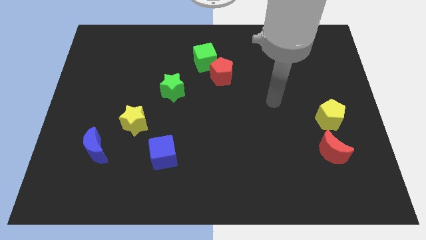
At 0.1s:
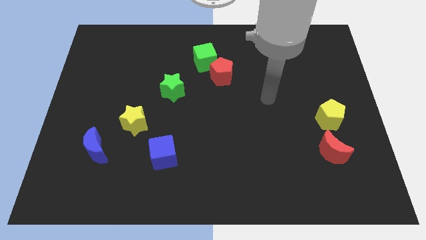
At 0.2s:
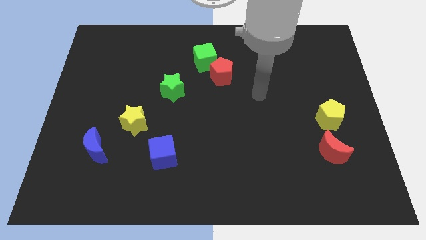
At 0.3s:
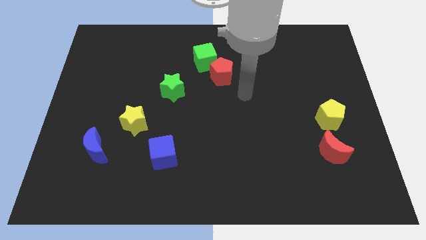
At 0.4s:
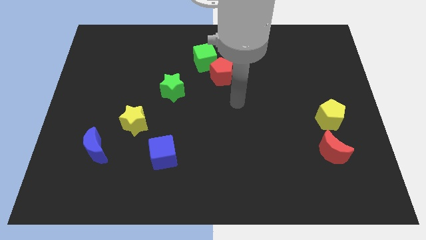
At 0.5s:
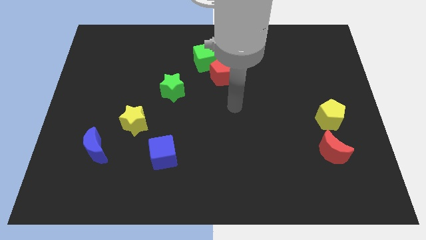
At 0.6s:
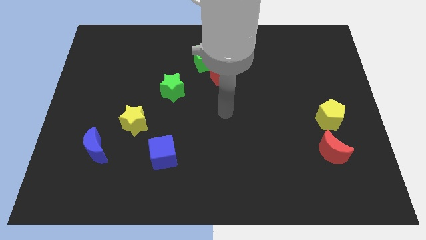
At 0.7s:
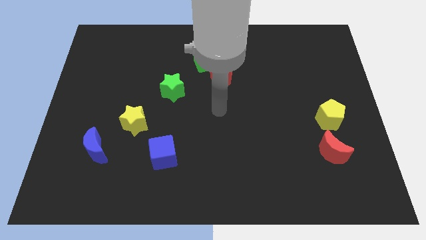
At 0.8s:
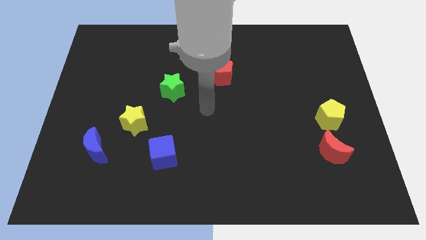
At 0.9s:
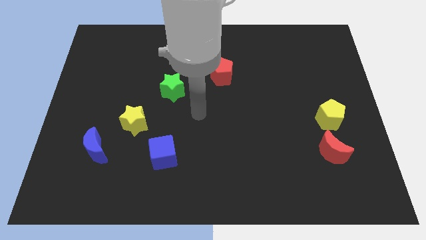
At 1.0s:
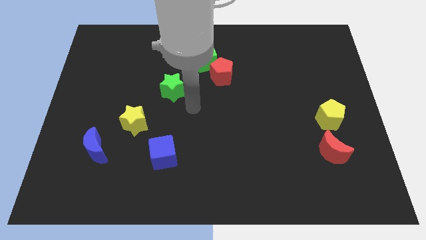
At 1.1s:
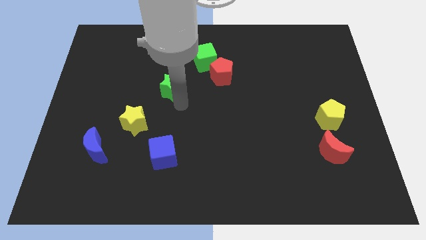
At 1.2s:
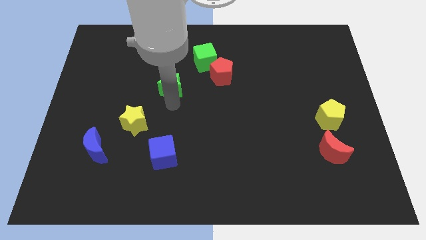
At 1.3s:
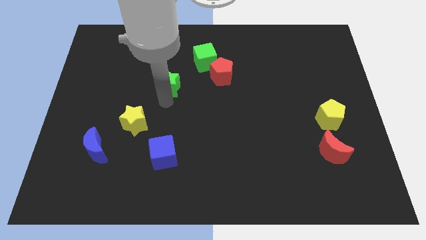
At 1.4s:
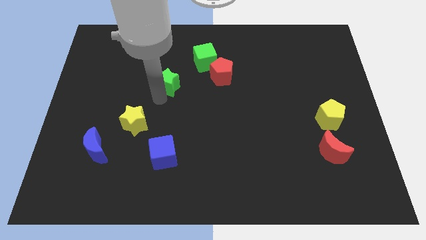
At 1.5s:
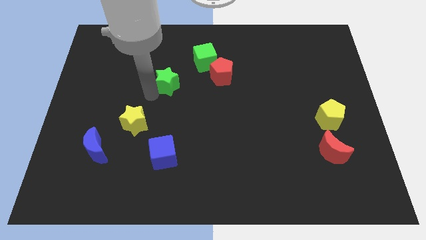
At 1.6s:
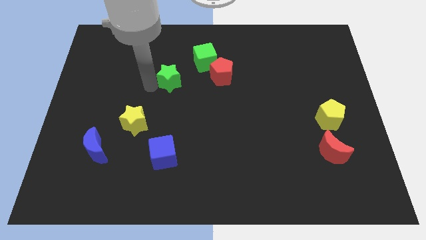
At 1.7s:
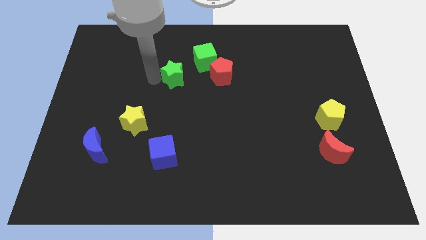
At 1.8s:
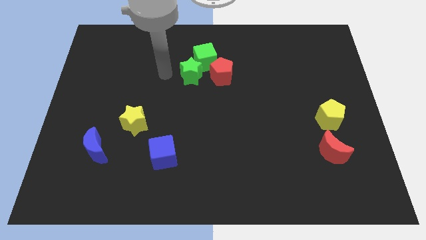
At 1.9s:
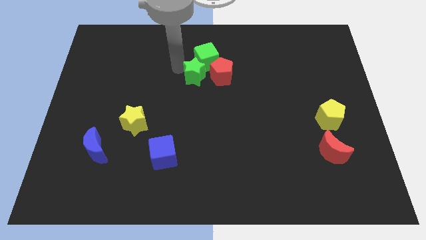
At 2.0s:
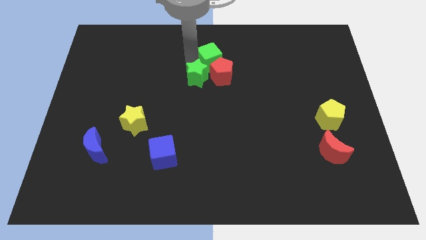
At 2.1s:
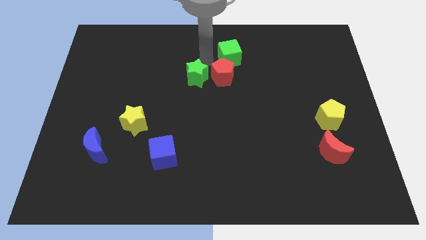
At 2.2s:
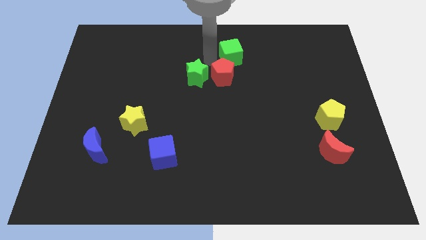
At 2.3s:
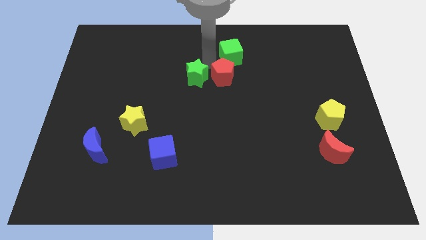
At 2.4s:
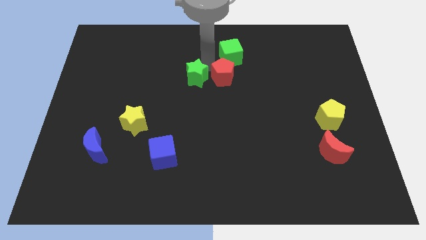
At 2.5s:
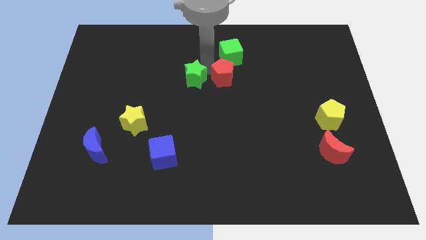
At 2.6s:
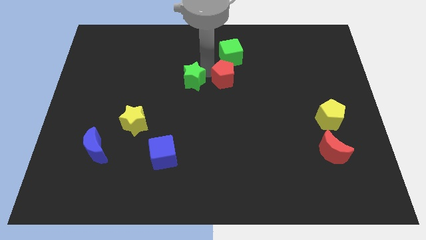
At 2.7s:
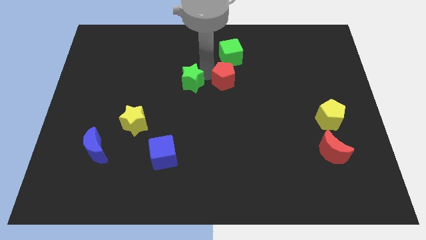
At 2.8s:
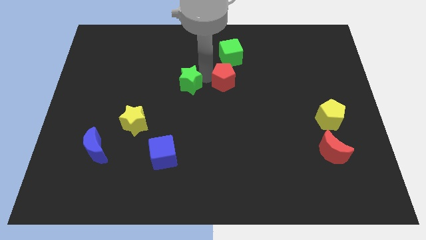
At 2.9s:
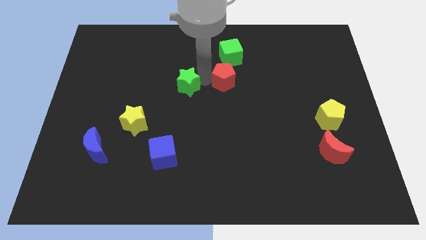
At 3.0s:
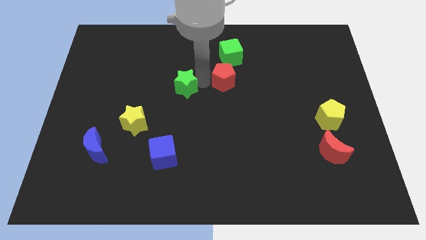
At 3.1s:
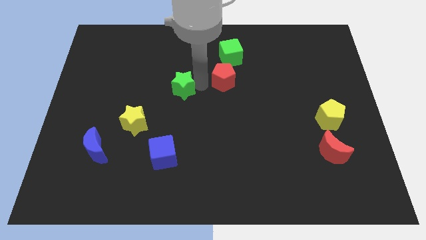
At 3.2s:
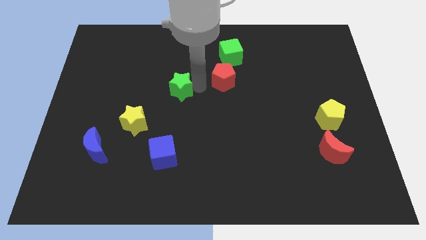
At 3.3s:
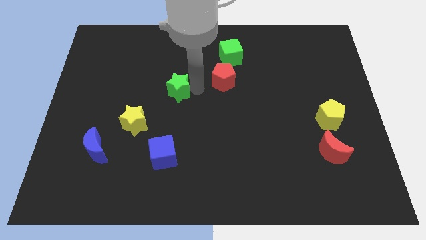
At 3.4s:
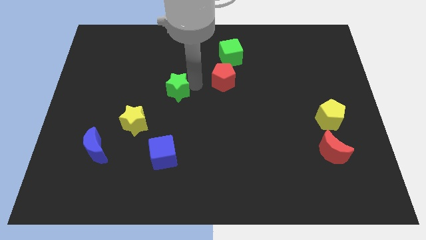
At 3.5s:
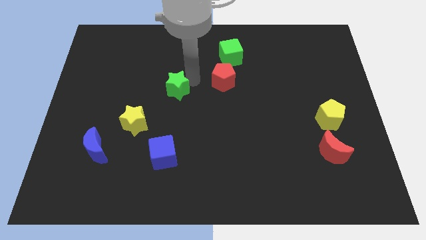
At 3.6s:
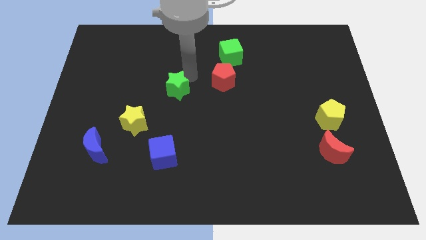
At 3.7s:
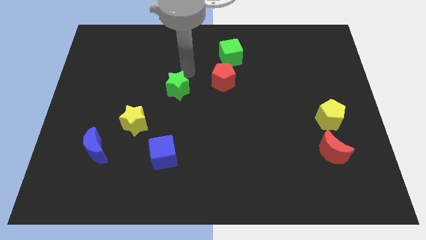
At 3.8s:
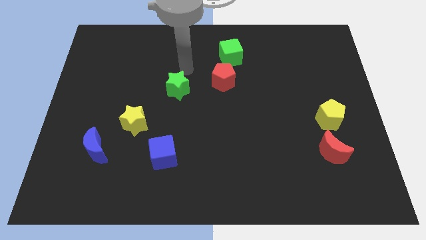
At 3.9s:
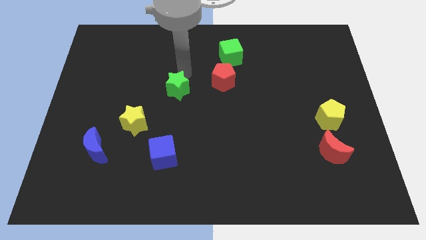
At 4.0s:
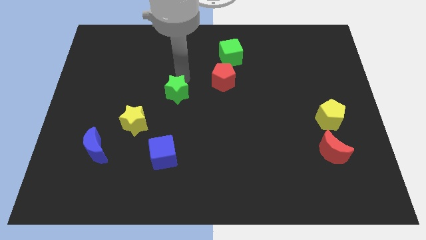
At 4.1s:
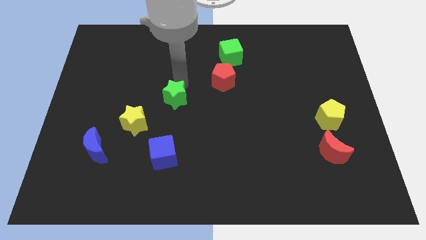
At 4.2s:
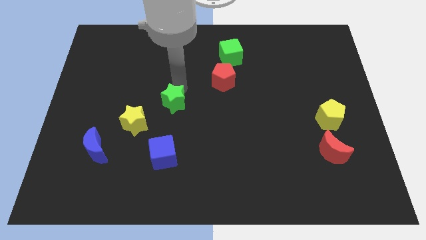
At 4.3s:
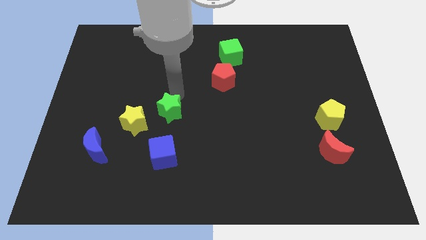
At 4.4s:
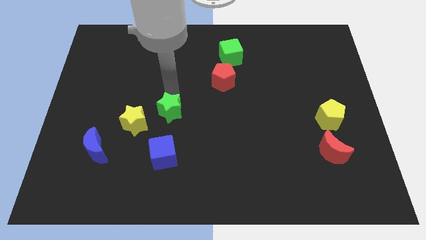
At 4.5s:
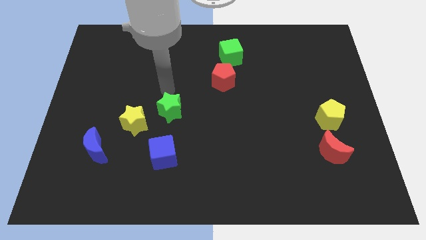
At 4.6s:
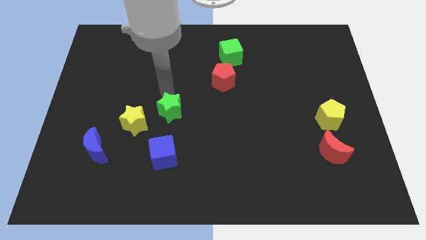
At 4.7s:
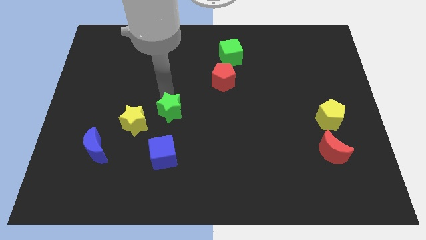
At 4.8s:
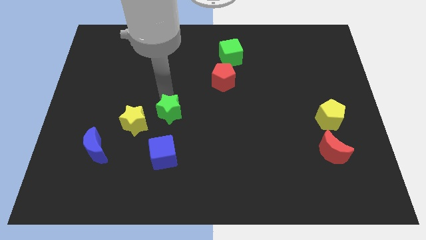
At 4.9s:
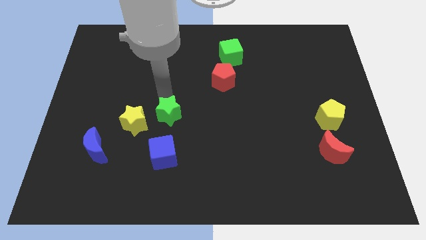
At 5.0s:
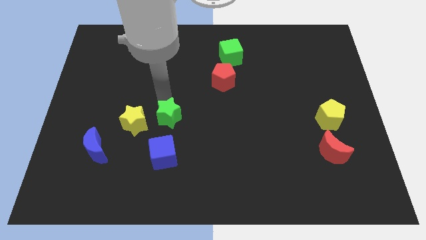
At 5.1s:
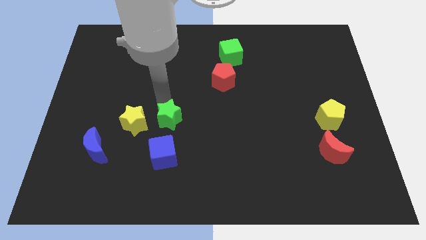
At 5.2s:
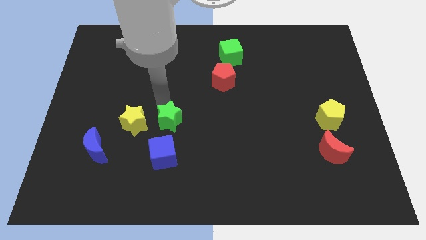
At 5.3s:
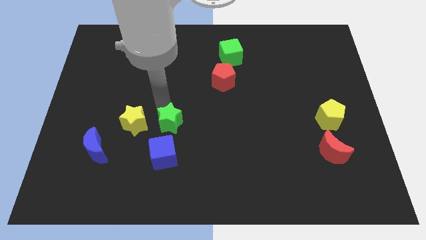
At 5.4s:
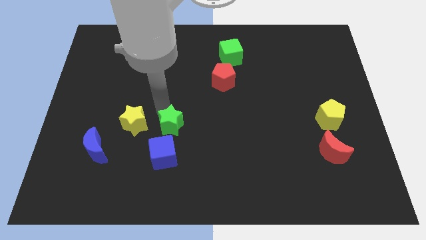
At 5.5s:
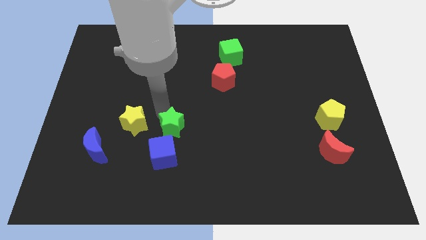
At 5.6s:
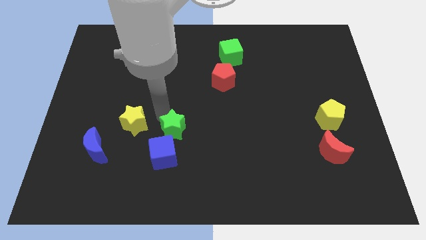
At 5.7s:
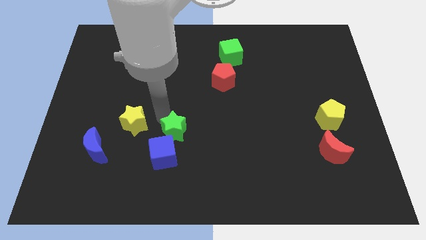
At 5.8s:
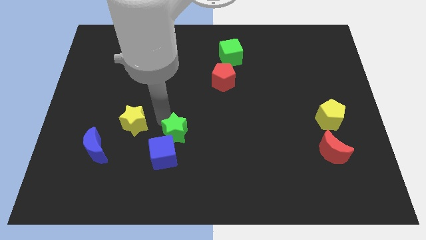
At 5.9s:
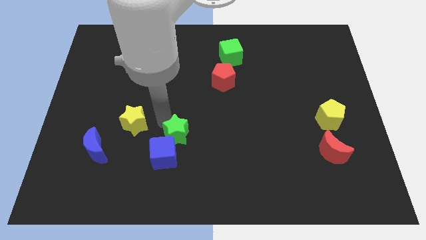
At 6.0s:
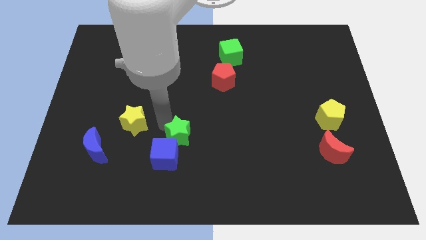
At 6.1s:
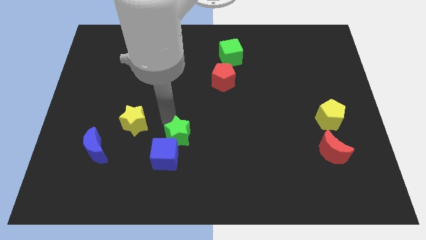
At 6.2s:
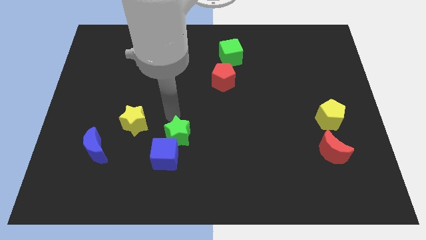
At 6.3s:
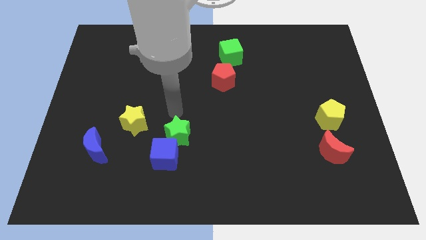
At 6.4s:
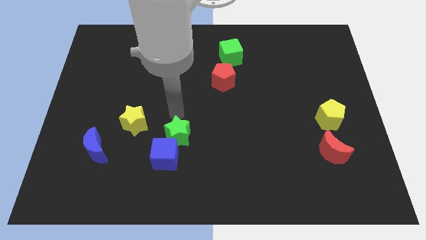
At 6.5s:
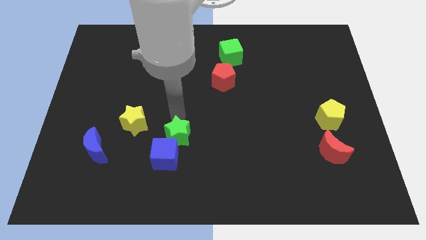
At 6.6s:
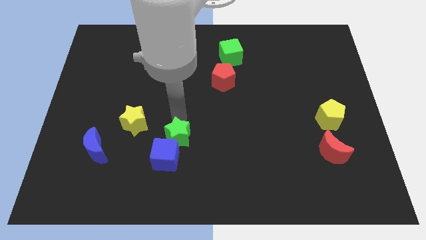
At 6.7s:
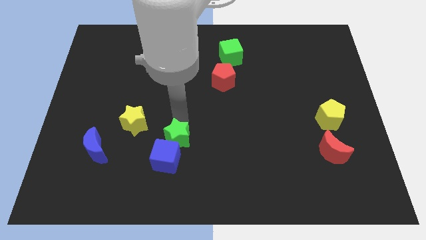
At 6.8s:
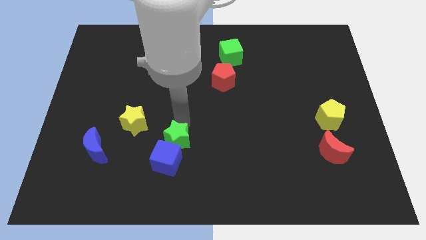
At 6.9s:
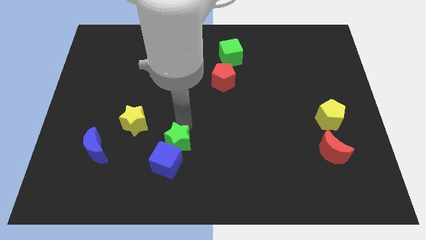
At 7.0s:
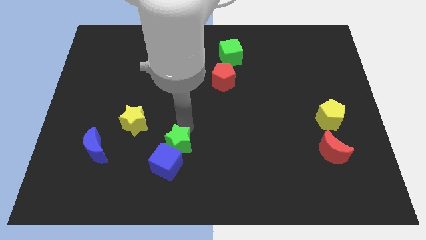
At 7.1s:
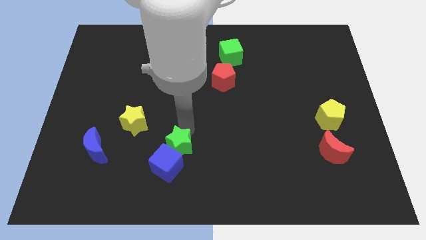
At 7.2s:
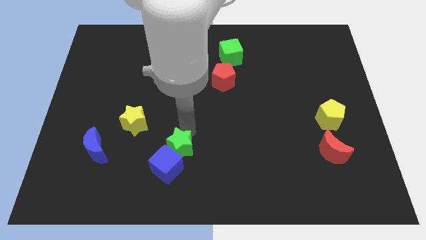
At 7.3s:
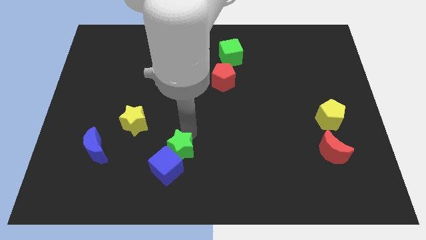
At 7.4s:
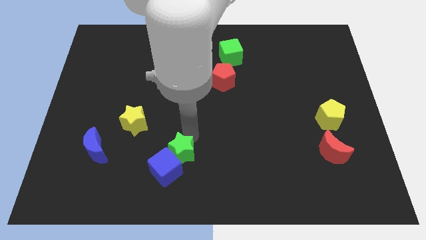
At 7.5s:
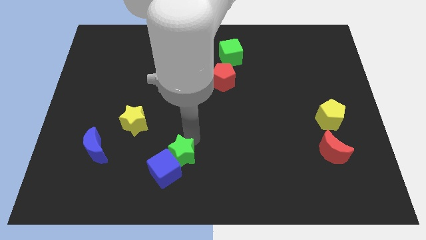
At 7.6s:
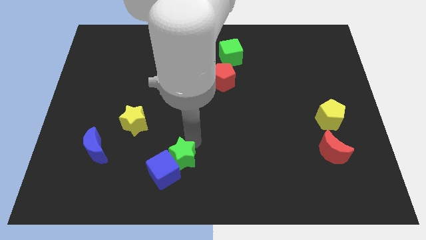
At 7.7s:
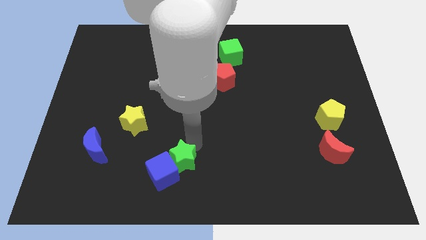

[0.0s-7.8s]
push the green star to the bottom side
